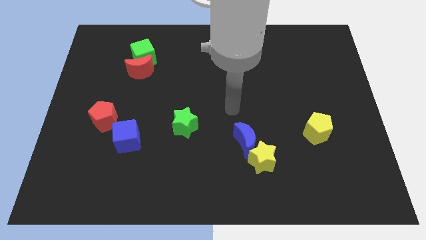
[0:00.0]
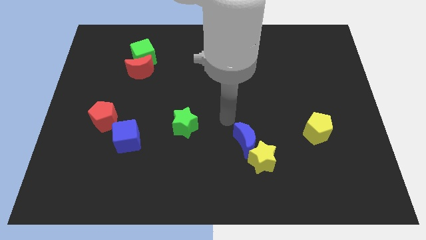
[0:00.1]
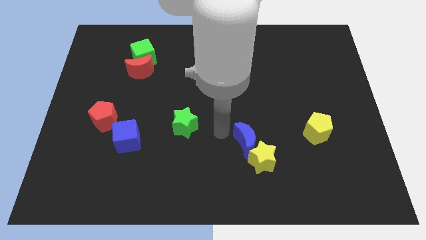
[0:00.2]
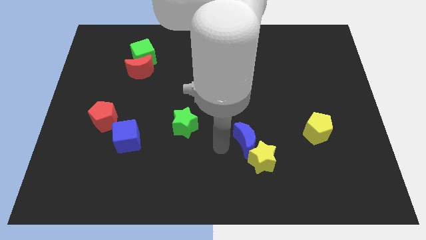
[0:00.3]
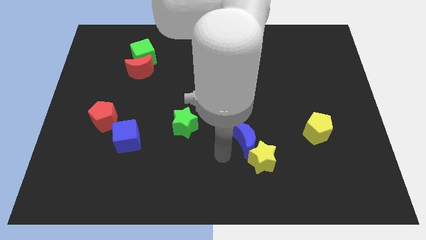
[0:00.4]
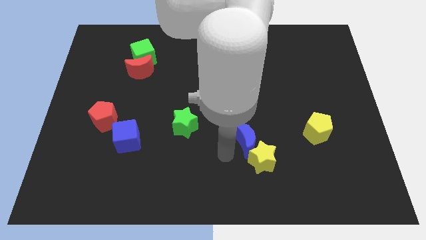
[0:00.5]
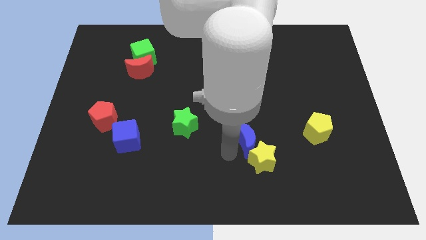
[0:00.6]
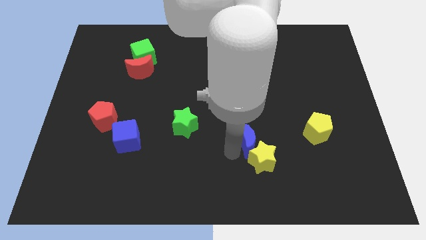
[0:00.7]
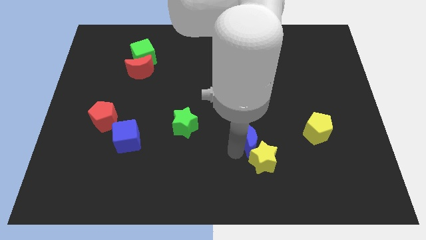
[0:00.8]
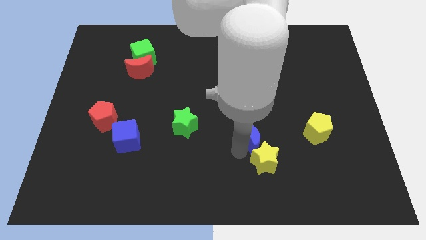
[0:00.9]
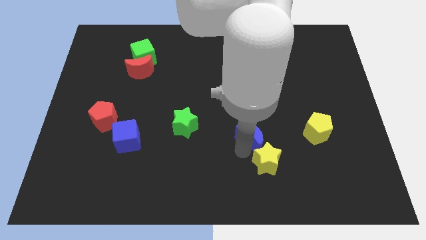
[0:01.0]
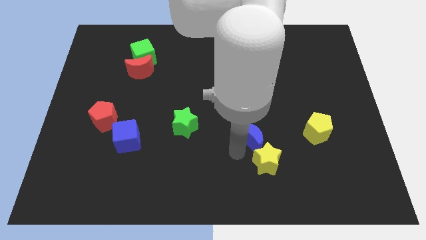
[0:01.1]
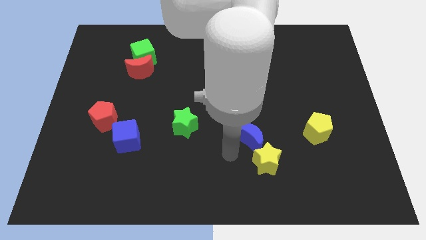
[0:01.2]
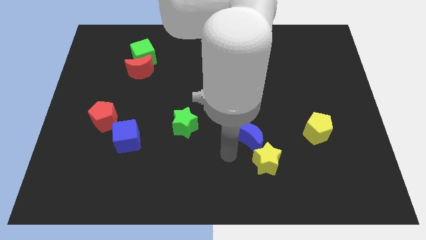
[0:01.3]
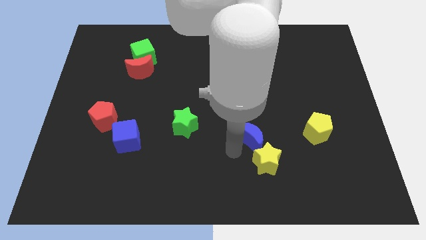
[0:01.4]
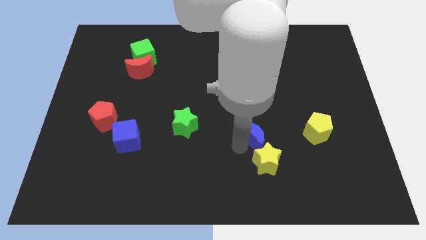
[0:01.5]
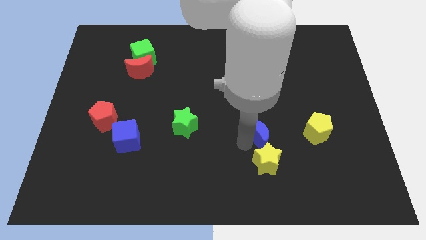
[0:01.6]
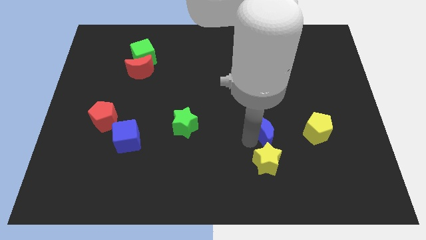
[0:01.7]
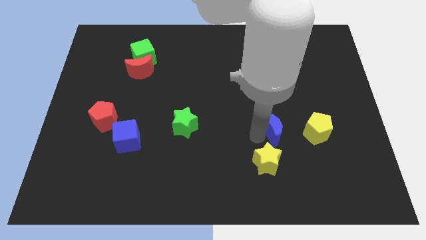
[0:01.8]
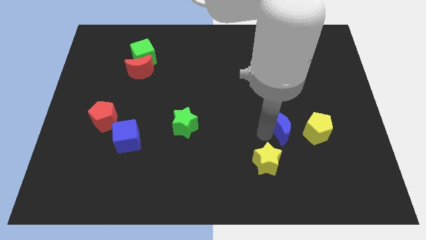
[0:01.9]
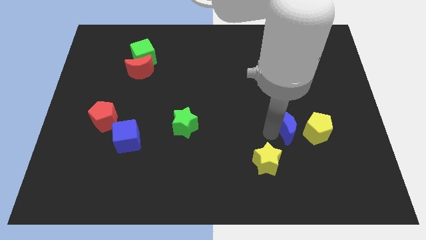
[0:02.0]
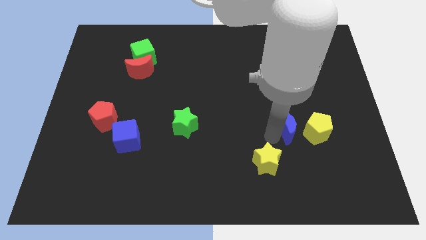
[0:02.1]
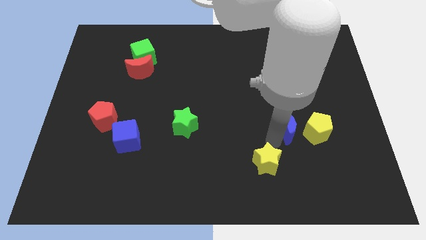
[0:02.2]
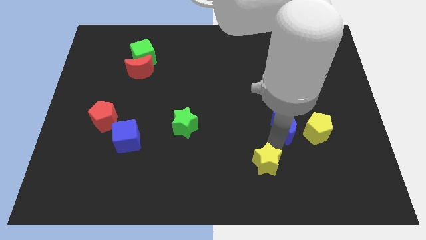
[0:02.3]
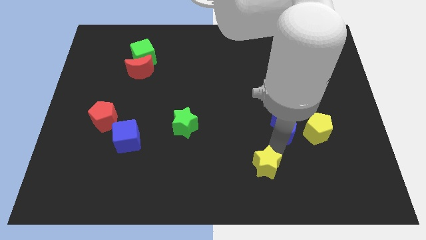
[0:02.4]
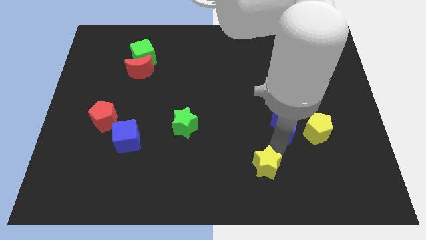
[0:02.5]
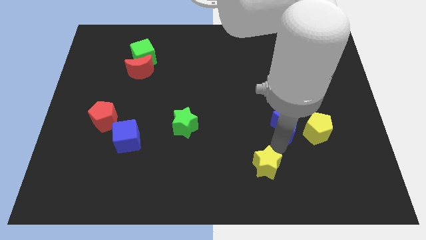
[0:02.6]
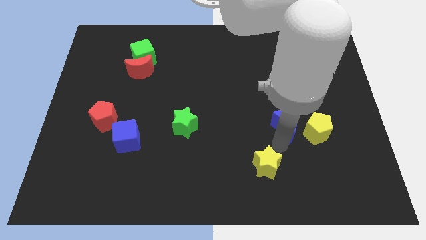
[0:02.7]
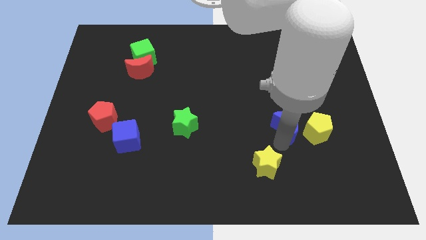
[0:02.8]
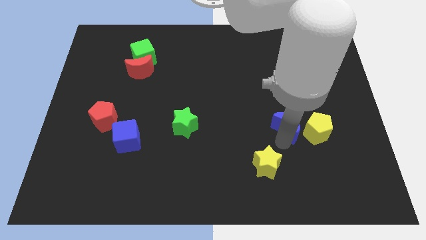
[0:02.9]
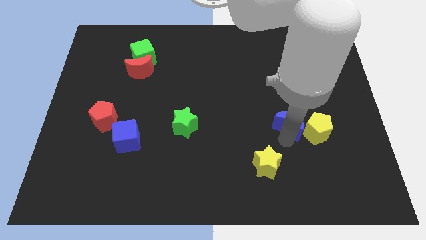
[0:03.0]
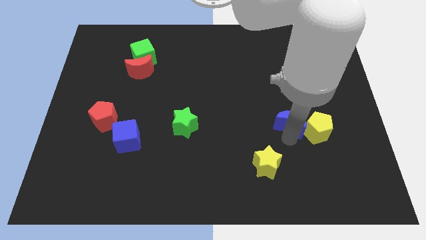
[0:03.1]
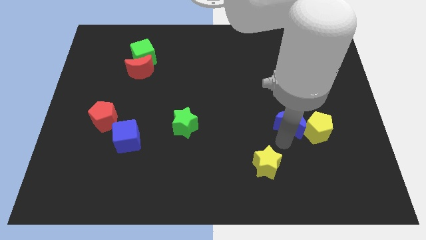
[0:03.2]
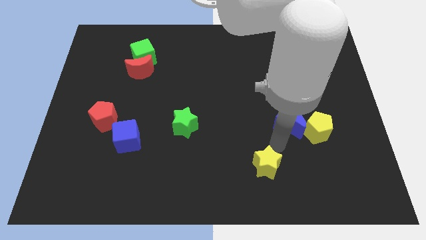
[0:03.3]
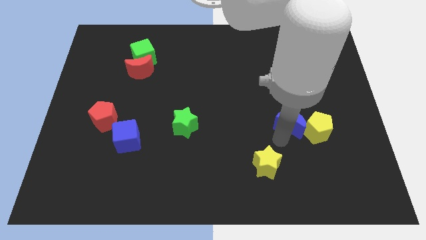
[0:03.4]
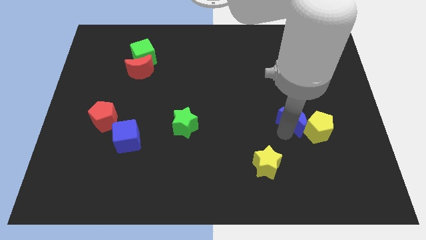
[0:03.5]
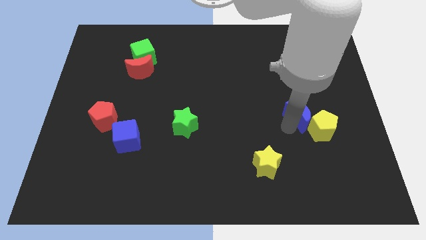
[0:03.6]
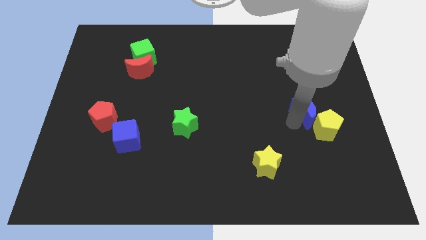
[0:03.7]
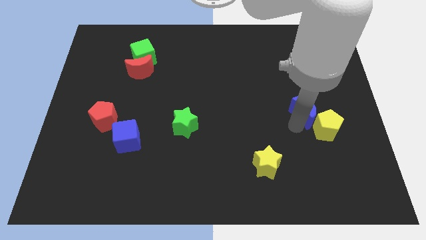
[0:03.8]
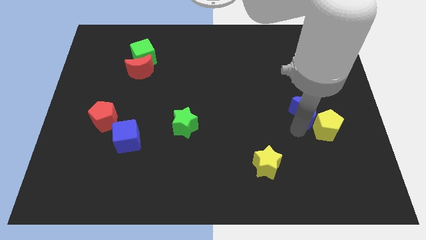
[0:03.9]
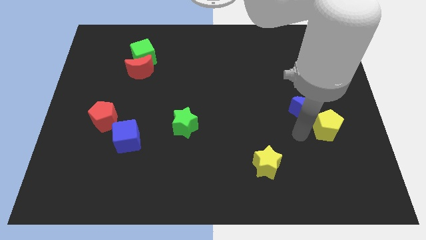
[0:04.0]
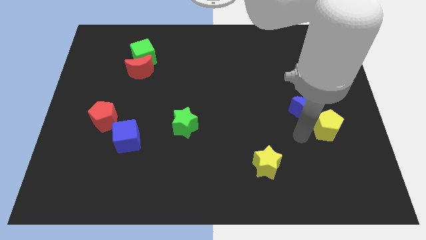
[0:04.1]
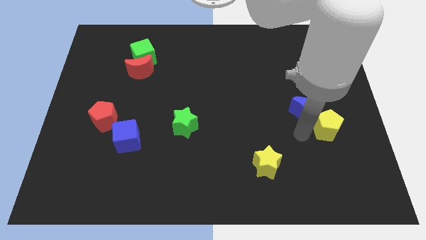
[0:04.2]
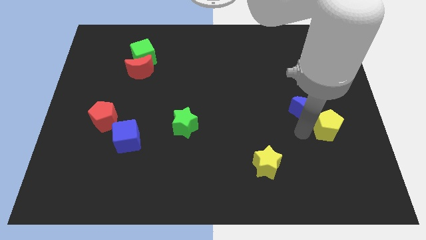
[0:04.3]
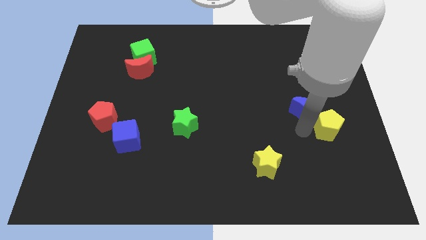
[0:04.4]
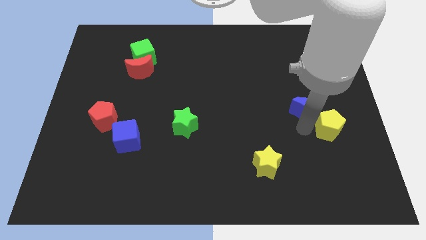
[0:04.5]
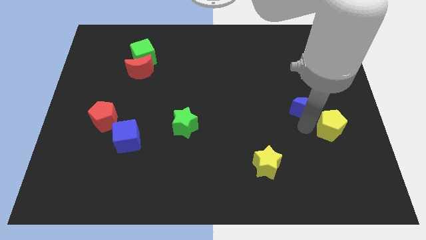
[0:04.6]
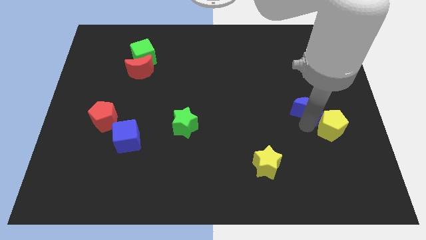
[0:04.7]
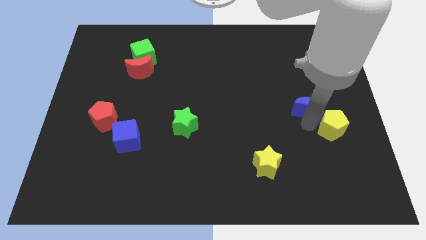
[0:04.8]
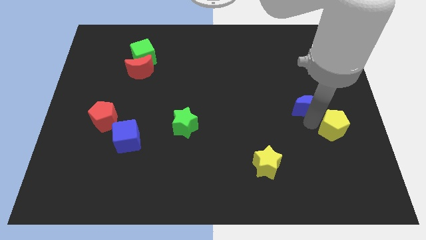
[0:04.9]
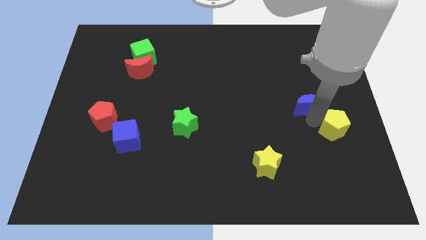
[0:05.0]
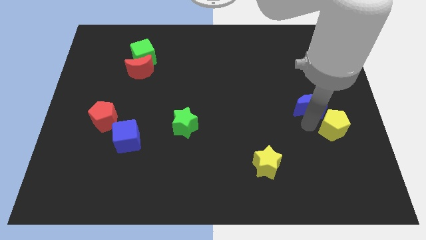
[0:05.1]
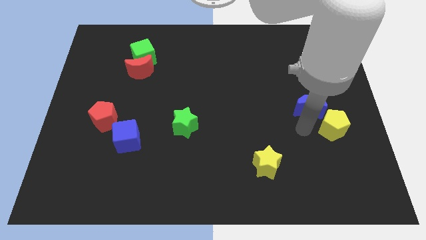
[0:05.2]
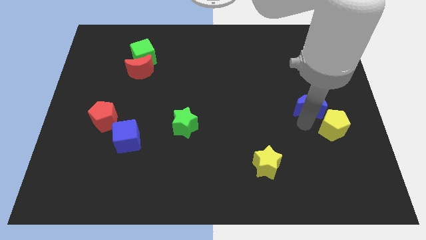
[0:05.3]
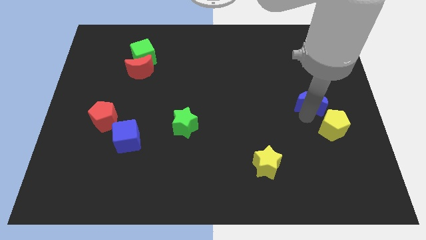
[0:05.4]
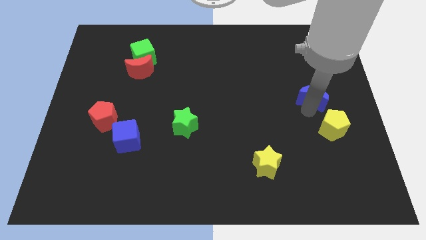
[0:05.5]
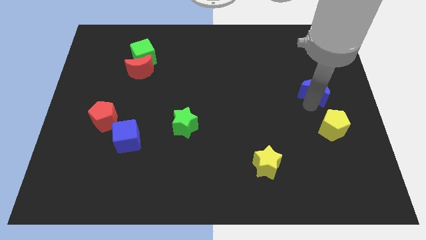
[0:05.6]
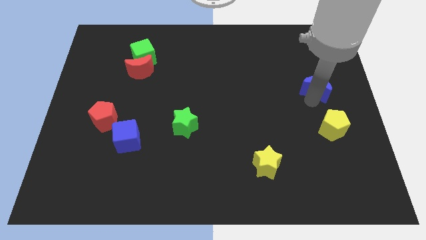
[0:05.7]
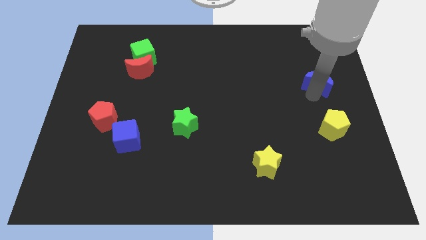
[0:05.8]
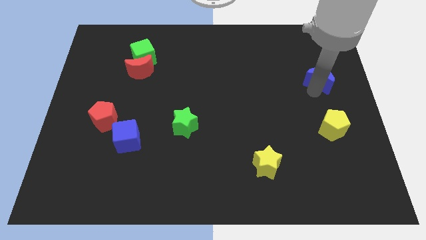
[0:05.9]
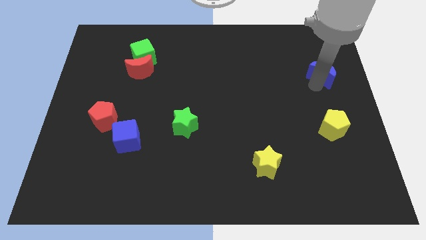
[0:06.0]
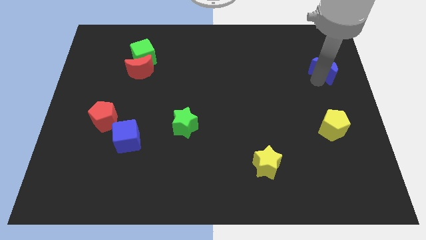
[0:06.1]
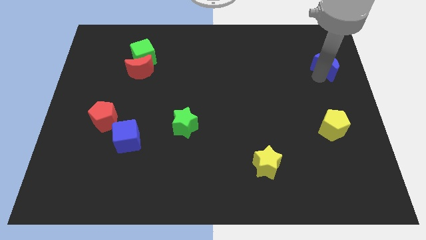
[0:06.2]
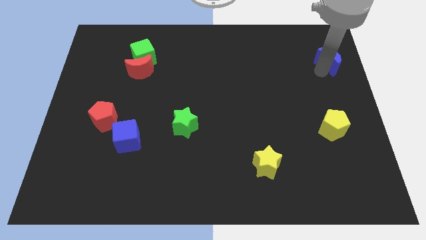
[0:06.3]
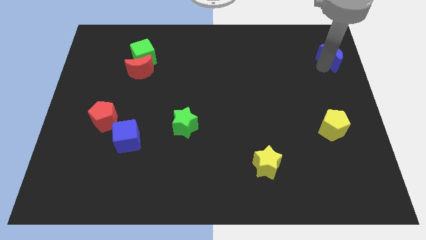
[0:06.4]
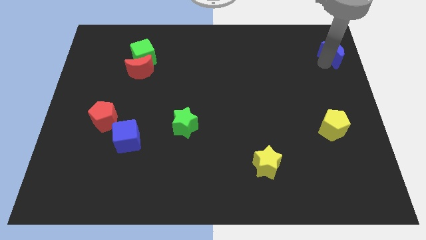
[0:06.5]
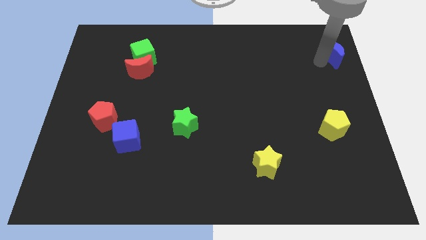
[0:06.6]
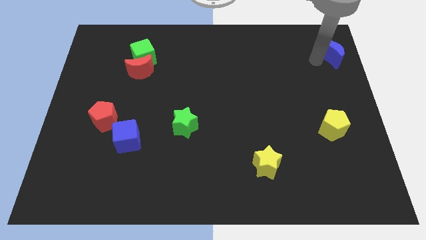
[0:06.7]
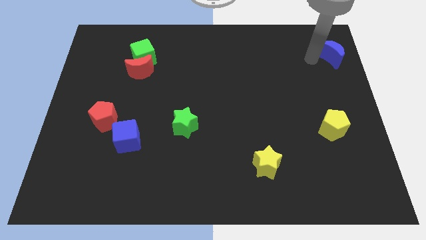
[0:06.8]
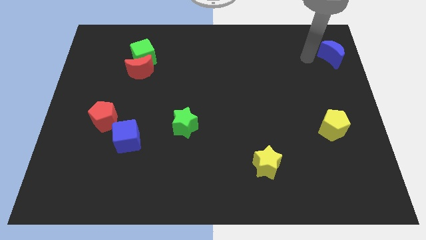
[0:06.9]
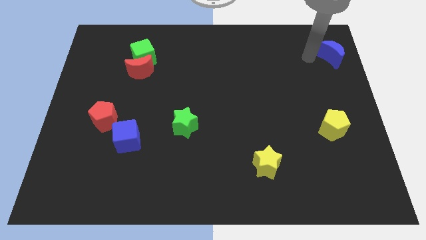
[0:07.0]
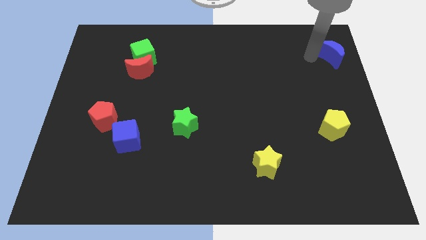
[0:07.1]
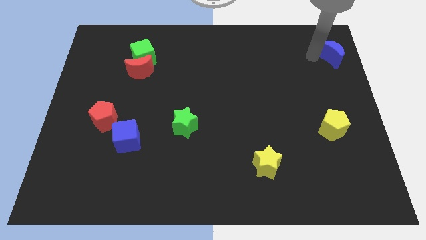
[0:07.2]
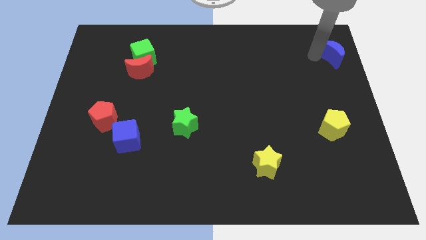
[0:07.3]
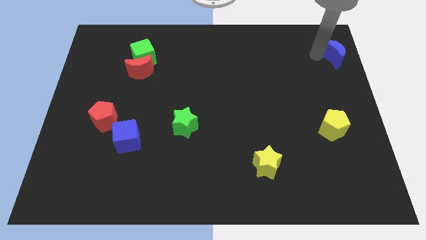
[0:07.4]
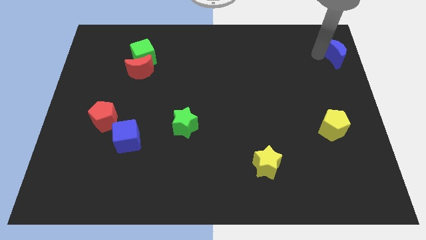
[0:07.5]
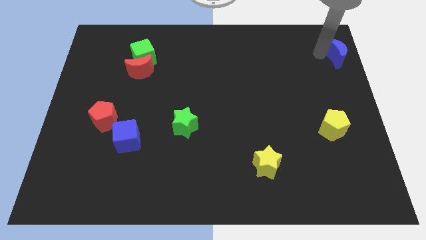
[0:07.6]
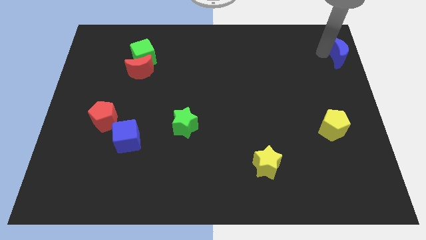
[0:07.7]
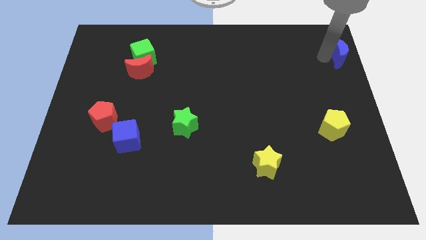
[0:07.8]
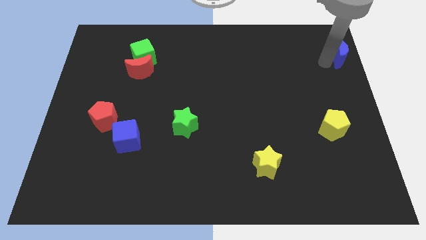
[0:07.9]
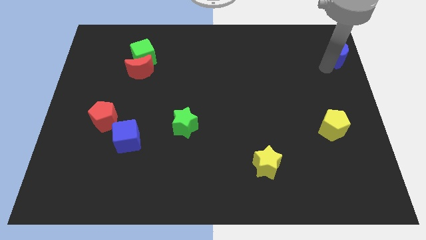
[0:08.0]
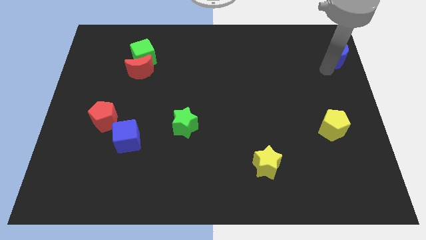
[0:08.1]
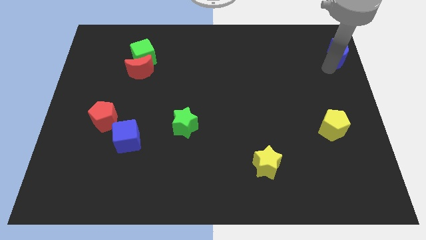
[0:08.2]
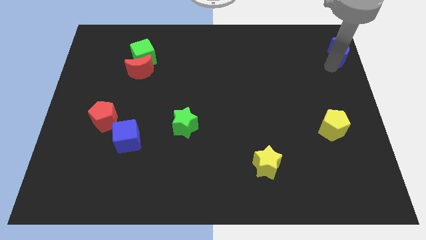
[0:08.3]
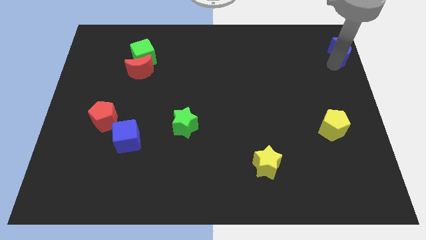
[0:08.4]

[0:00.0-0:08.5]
slide the blue moon to the top right
